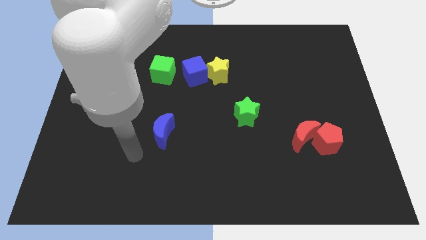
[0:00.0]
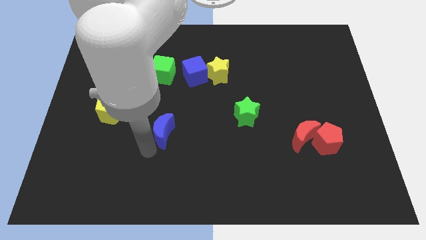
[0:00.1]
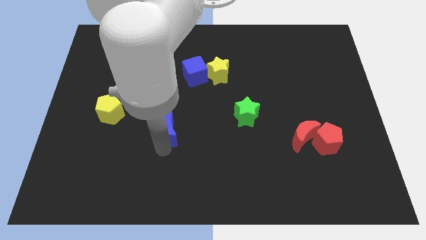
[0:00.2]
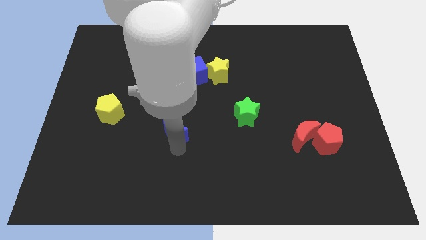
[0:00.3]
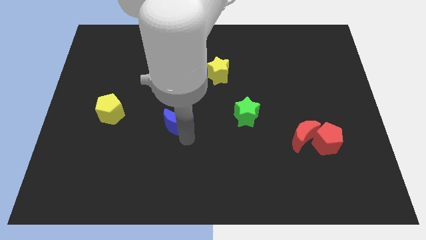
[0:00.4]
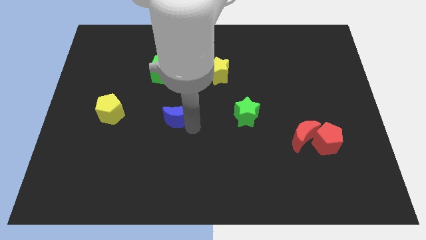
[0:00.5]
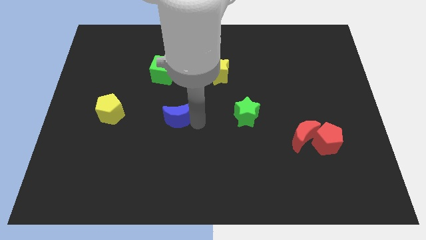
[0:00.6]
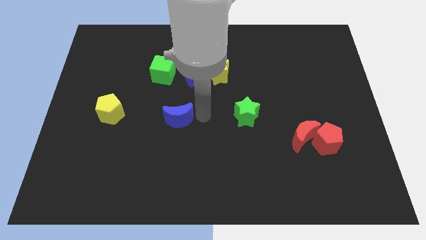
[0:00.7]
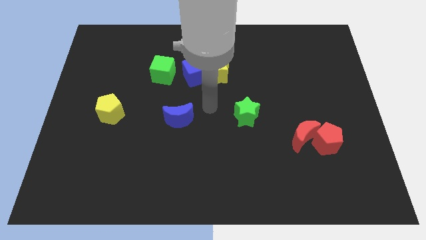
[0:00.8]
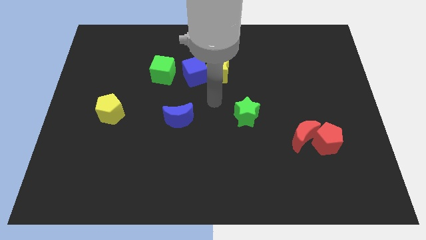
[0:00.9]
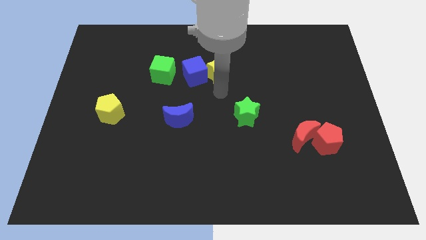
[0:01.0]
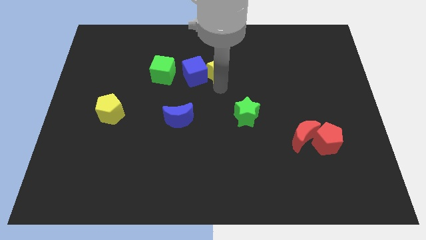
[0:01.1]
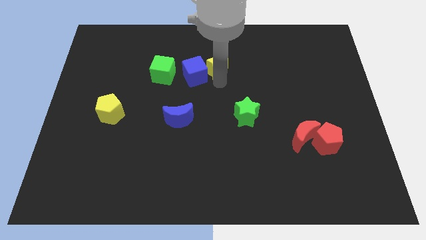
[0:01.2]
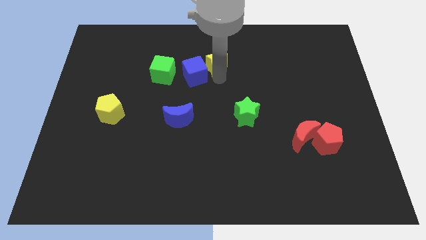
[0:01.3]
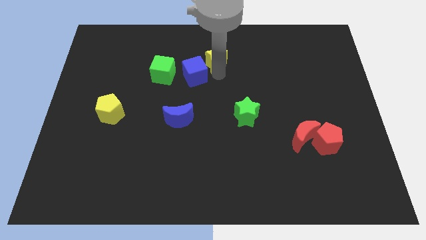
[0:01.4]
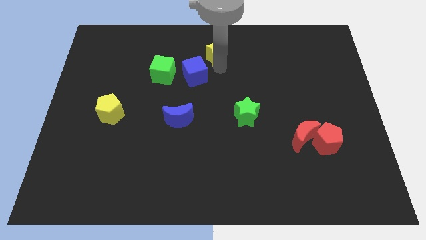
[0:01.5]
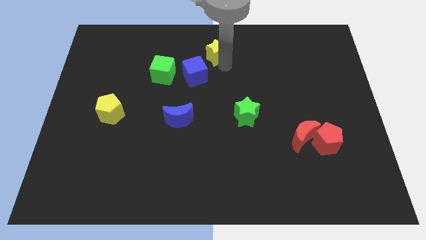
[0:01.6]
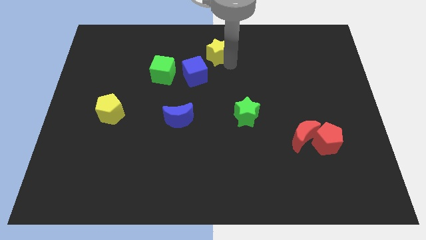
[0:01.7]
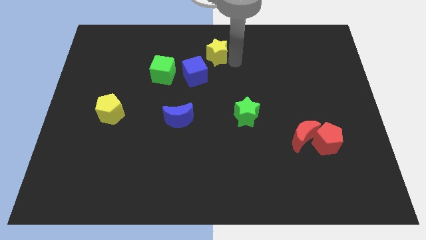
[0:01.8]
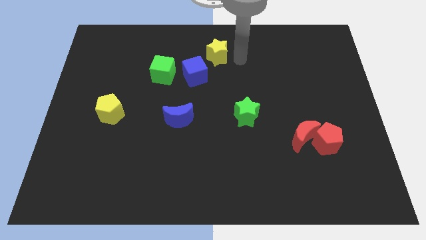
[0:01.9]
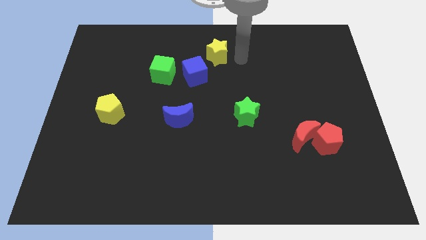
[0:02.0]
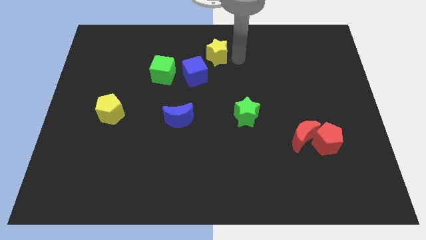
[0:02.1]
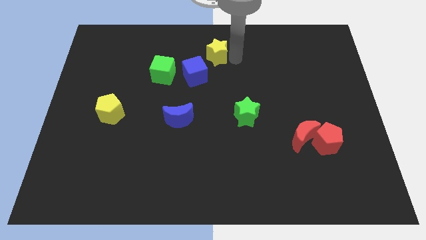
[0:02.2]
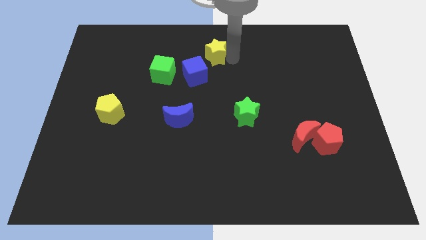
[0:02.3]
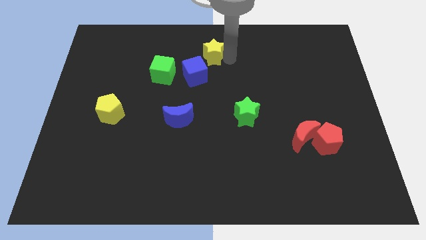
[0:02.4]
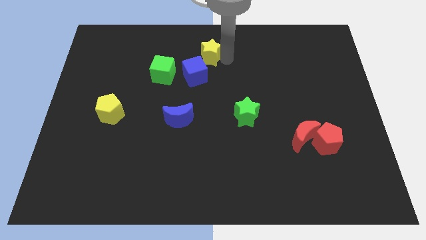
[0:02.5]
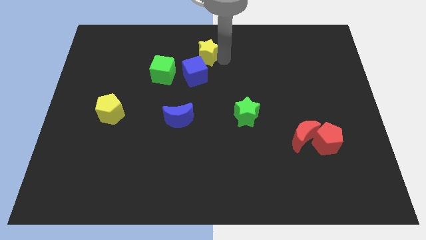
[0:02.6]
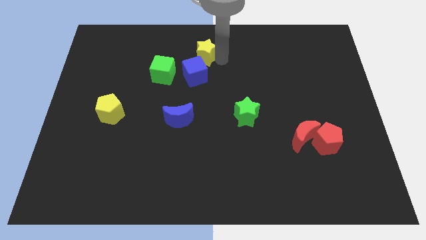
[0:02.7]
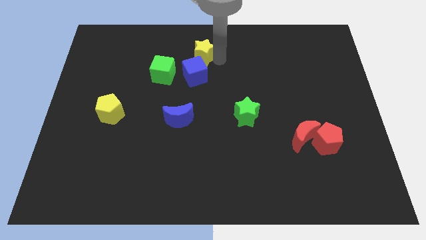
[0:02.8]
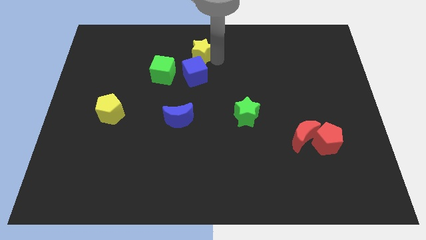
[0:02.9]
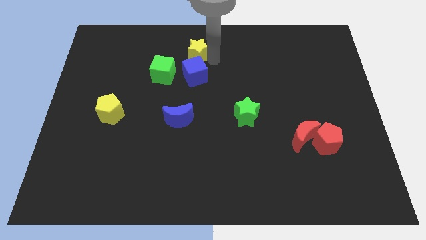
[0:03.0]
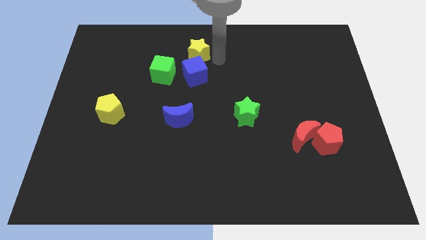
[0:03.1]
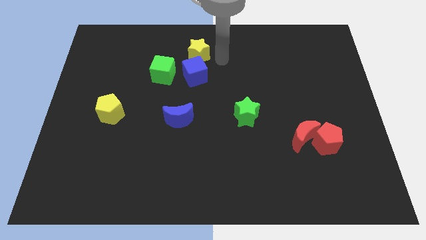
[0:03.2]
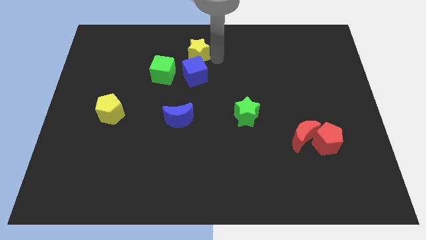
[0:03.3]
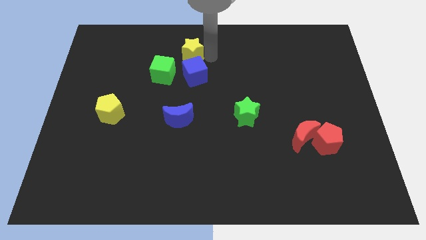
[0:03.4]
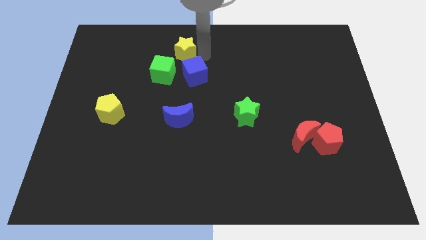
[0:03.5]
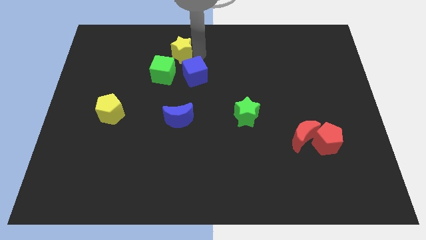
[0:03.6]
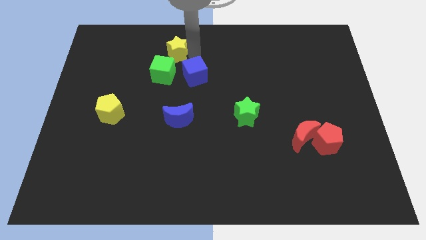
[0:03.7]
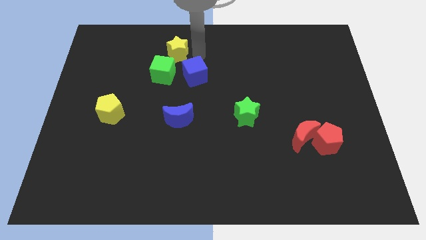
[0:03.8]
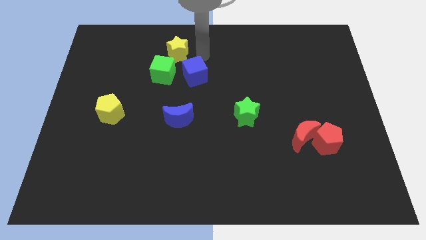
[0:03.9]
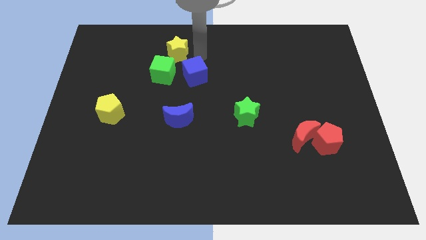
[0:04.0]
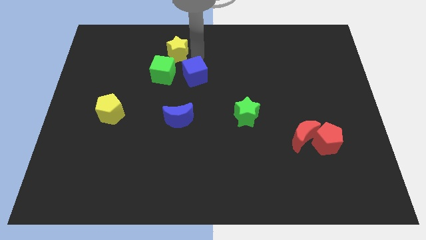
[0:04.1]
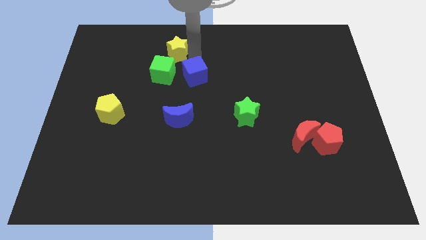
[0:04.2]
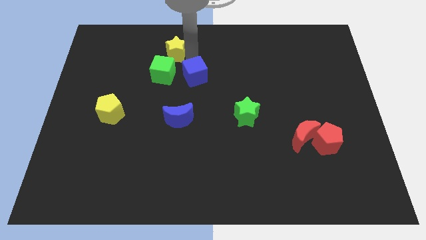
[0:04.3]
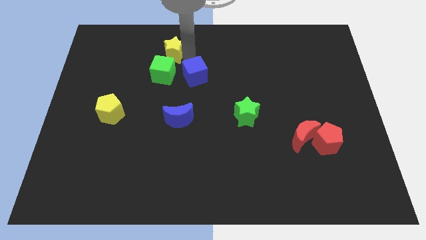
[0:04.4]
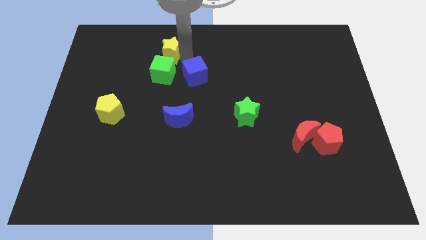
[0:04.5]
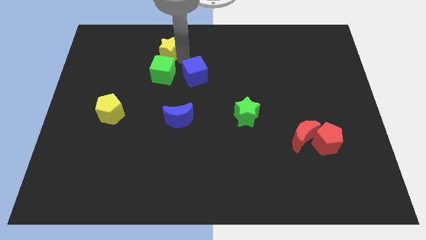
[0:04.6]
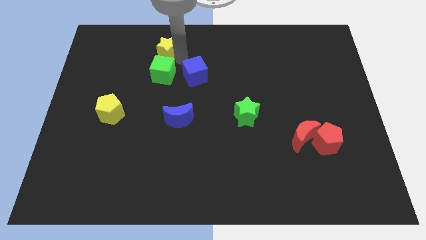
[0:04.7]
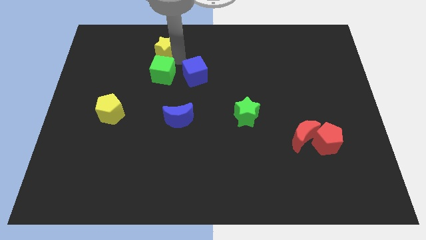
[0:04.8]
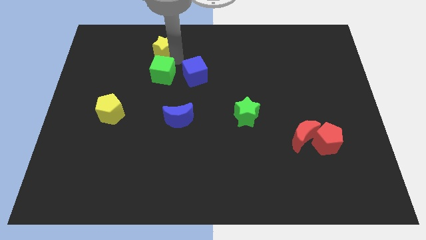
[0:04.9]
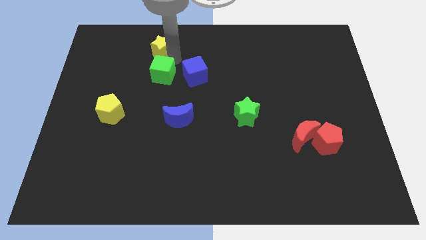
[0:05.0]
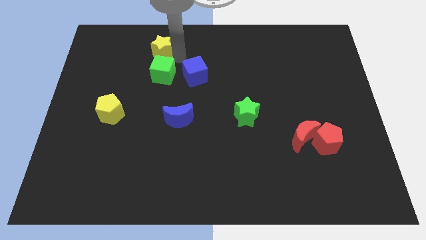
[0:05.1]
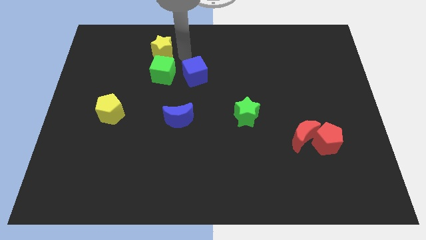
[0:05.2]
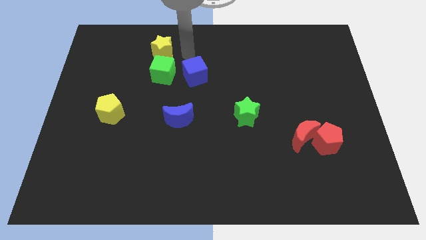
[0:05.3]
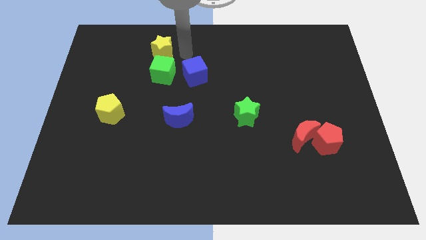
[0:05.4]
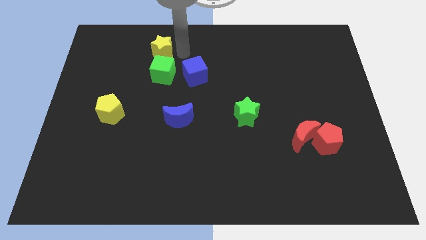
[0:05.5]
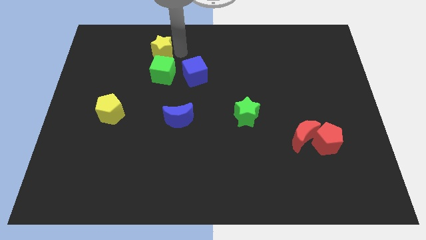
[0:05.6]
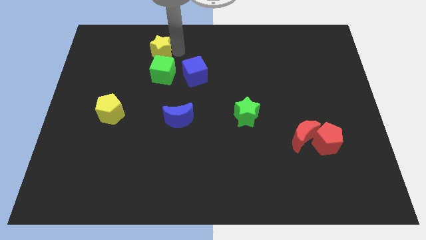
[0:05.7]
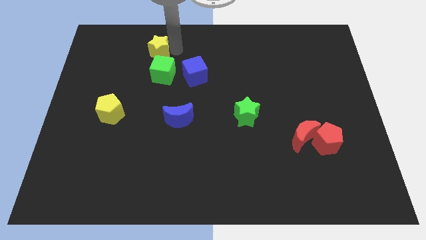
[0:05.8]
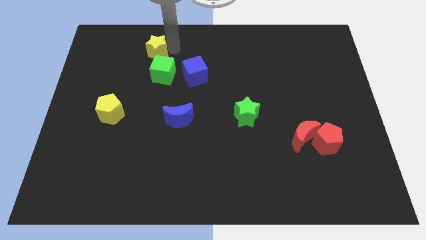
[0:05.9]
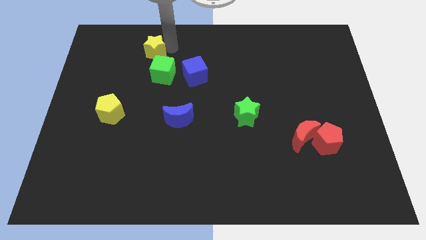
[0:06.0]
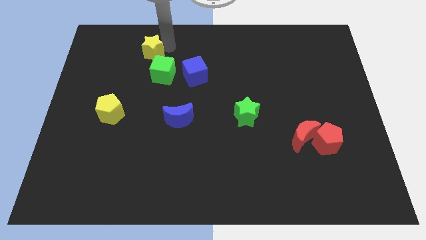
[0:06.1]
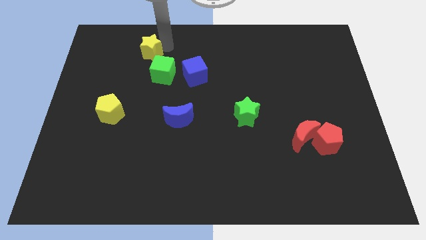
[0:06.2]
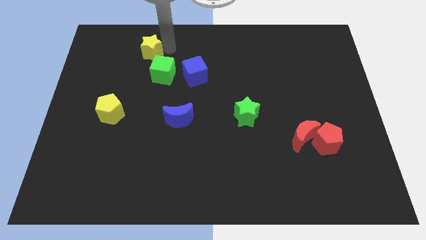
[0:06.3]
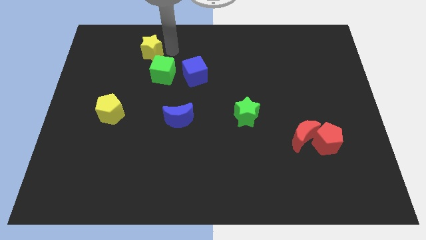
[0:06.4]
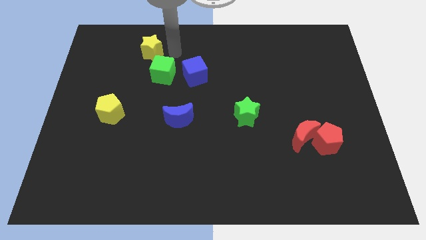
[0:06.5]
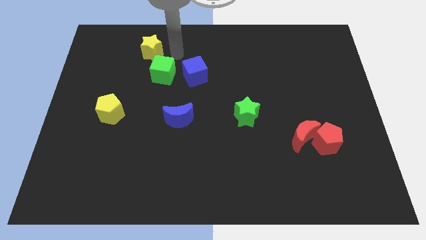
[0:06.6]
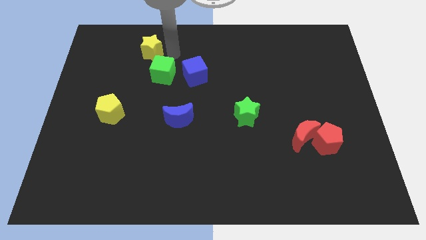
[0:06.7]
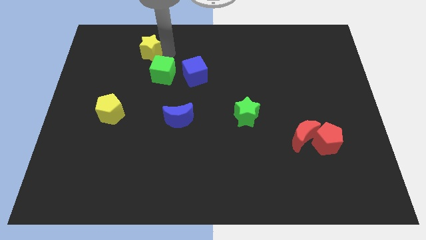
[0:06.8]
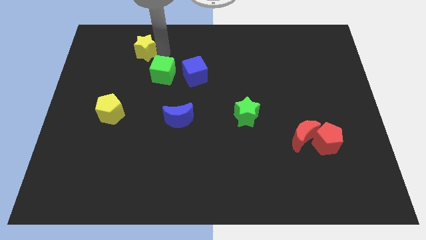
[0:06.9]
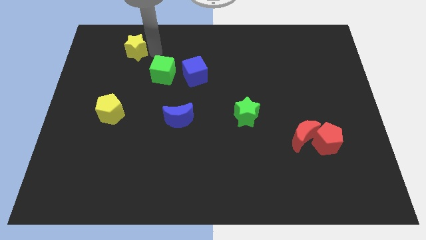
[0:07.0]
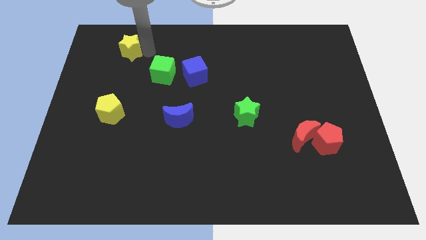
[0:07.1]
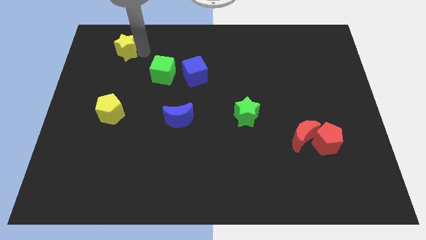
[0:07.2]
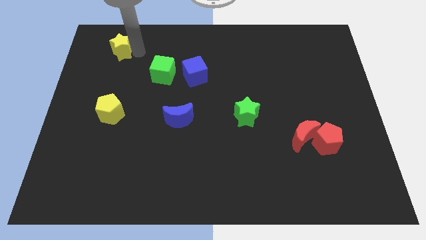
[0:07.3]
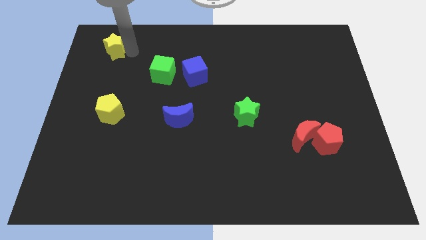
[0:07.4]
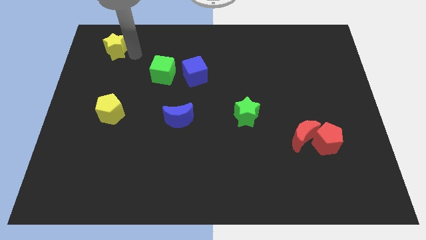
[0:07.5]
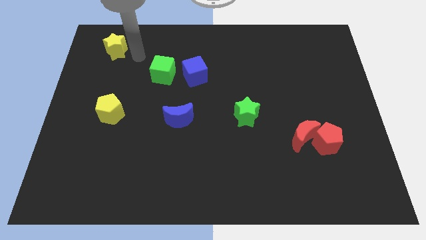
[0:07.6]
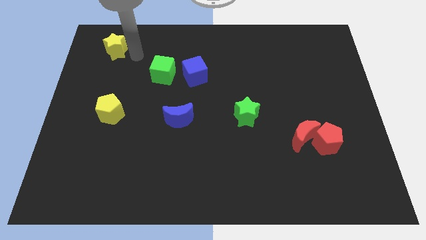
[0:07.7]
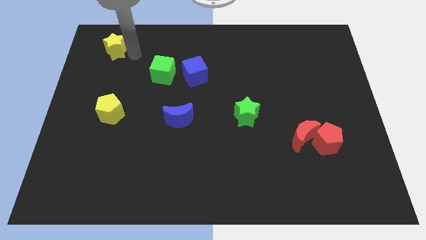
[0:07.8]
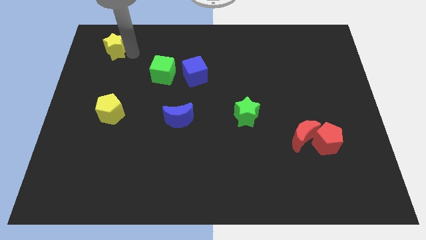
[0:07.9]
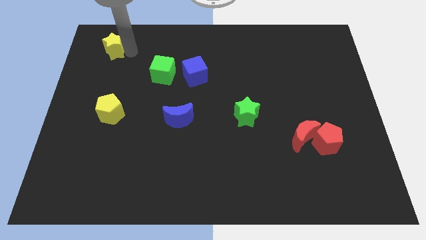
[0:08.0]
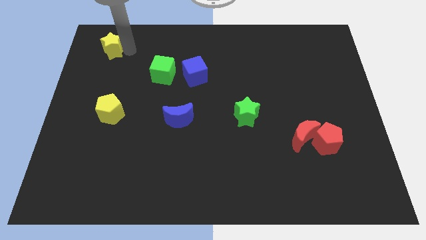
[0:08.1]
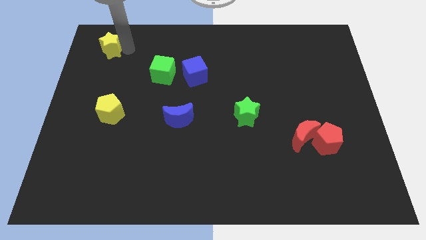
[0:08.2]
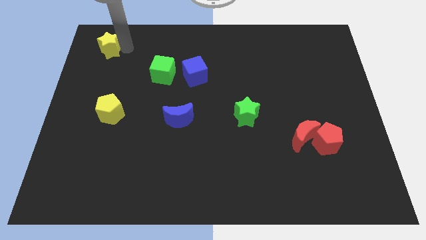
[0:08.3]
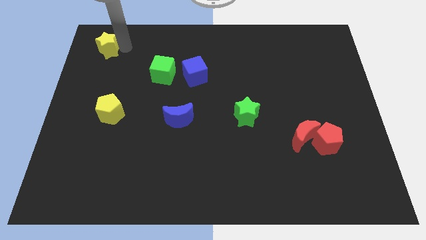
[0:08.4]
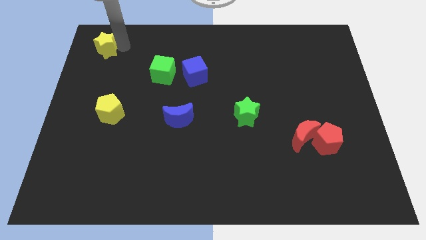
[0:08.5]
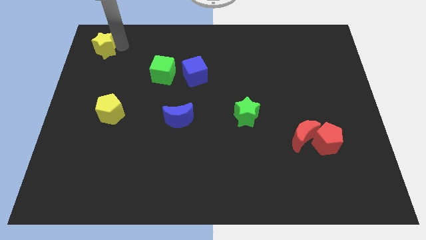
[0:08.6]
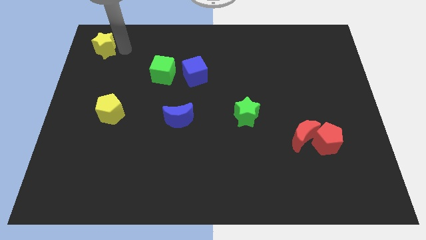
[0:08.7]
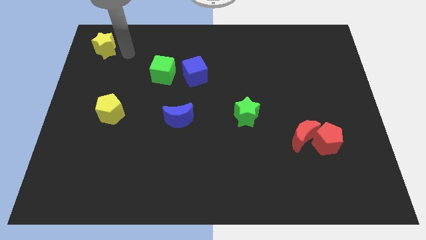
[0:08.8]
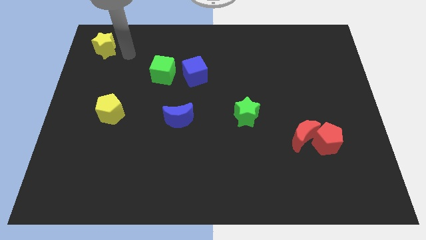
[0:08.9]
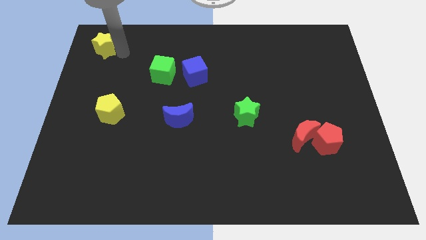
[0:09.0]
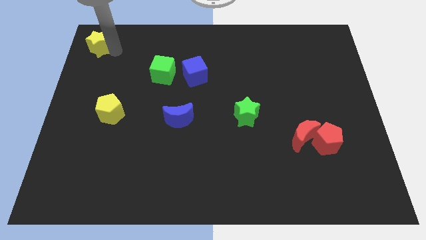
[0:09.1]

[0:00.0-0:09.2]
put the yellow star to the upper left corner
